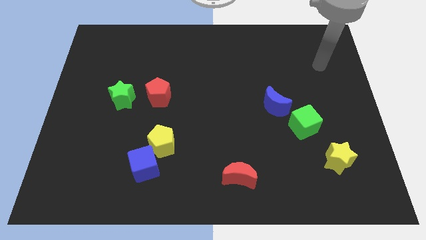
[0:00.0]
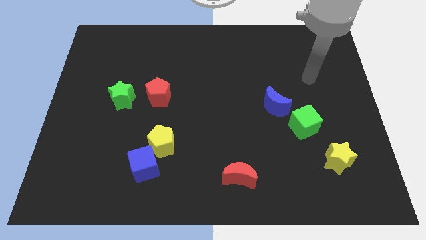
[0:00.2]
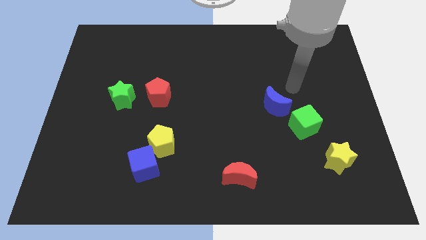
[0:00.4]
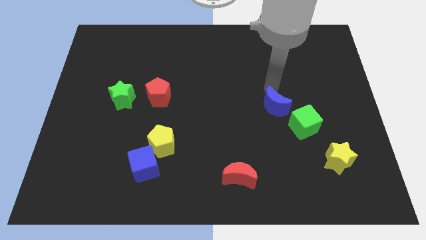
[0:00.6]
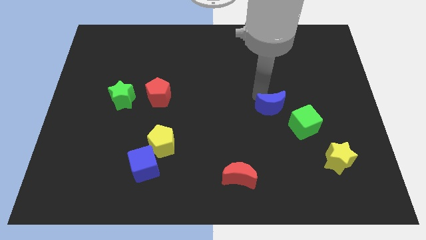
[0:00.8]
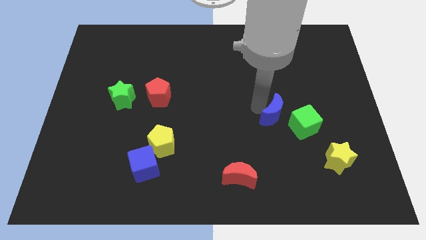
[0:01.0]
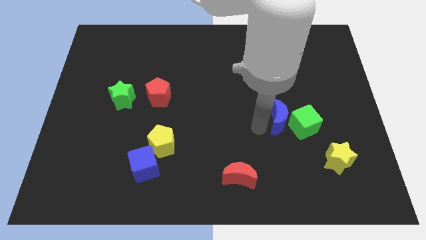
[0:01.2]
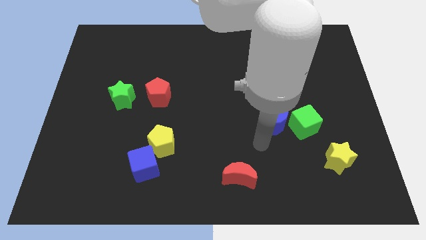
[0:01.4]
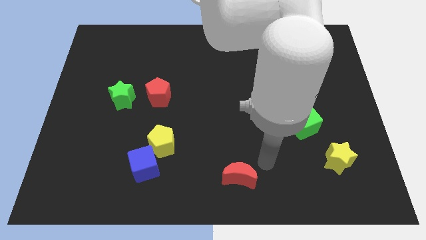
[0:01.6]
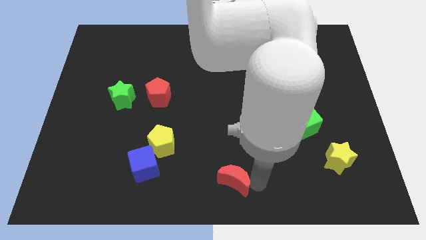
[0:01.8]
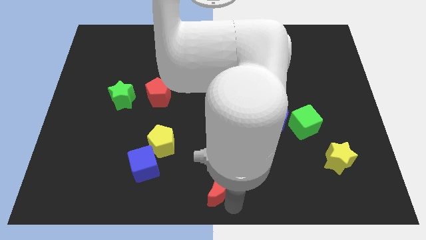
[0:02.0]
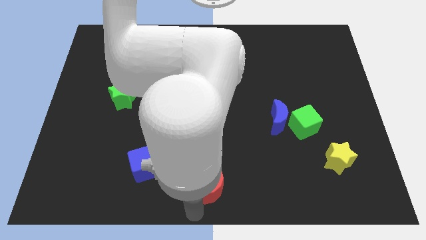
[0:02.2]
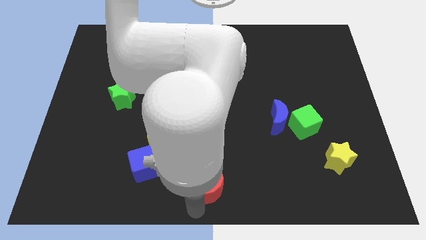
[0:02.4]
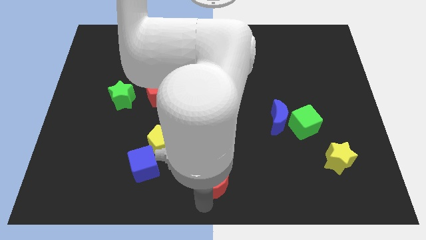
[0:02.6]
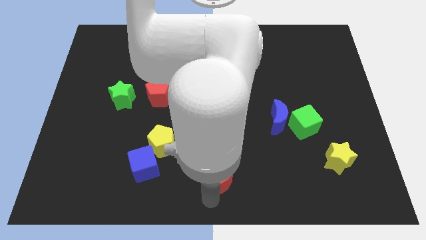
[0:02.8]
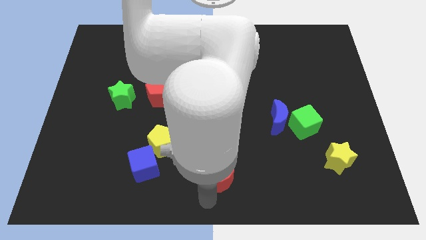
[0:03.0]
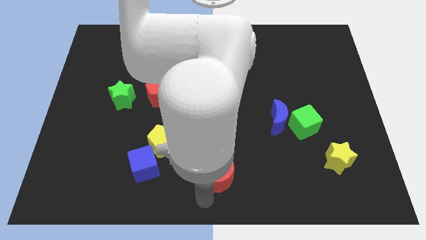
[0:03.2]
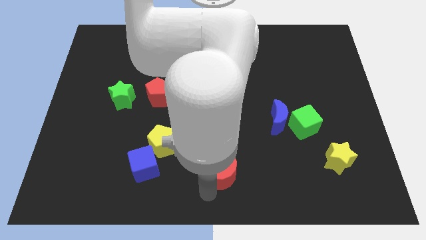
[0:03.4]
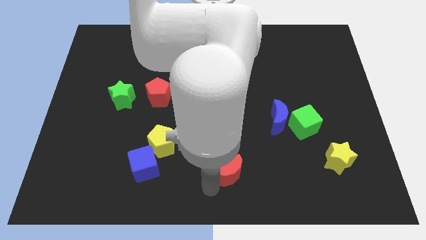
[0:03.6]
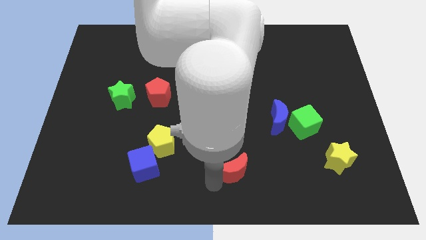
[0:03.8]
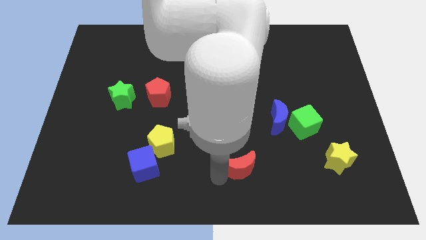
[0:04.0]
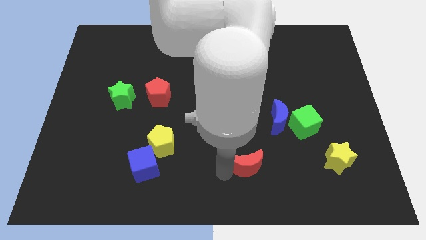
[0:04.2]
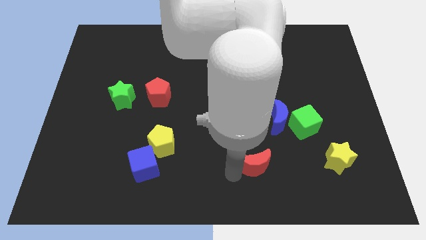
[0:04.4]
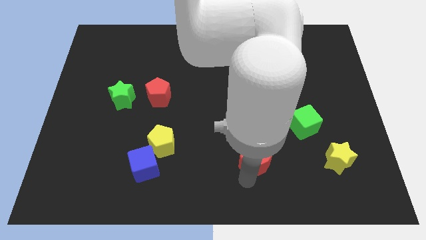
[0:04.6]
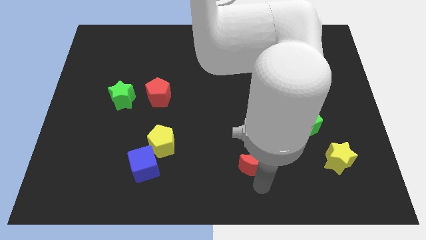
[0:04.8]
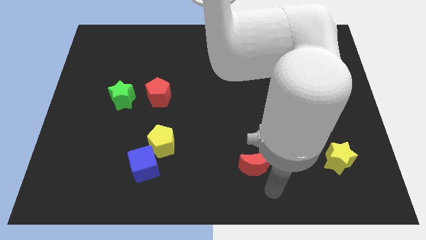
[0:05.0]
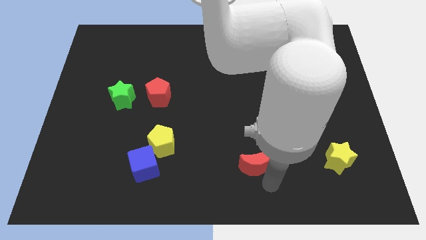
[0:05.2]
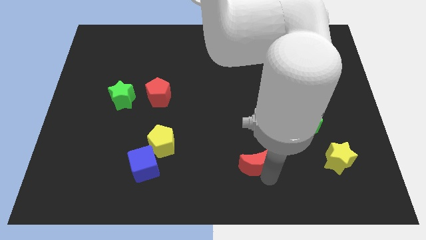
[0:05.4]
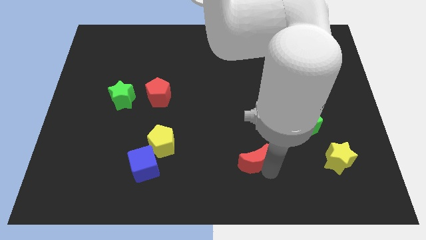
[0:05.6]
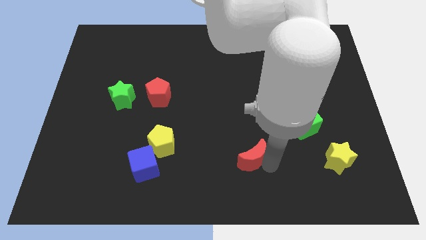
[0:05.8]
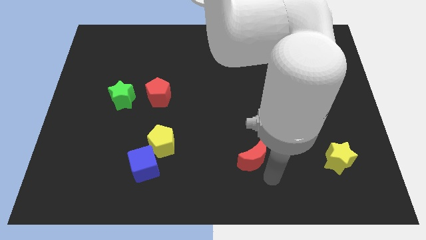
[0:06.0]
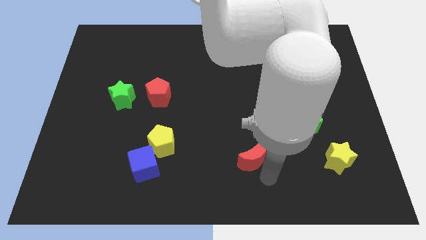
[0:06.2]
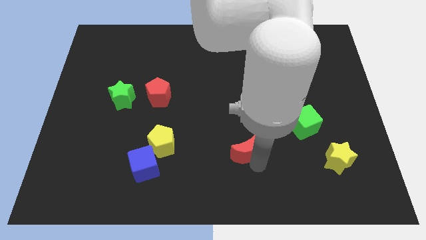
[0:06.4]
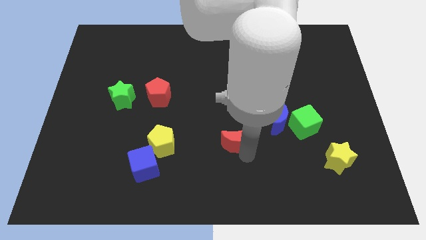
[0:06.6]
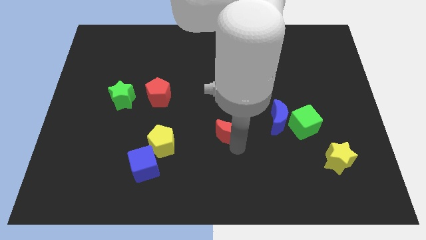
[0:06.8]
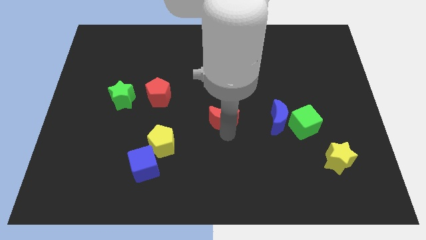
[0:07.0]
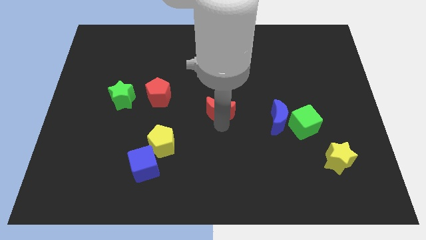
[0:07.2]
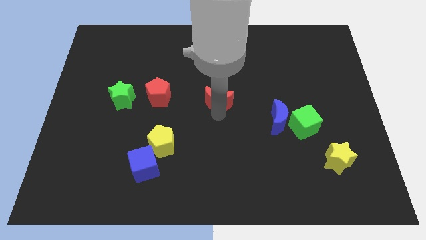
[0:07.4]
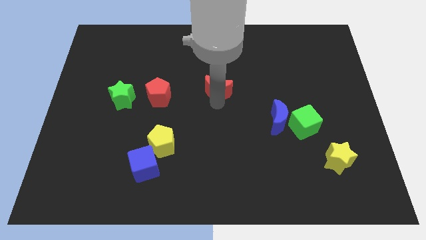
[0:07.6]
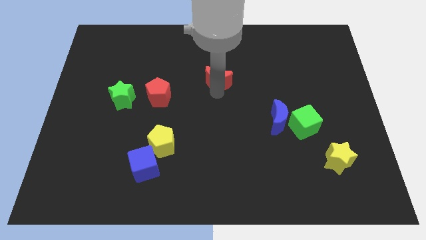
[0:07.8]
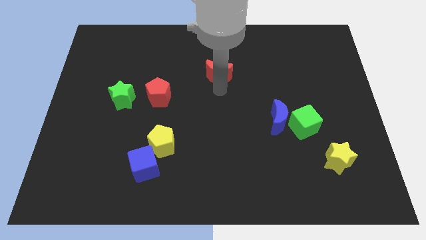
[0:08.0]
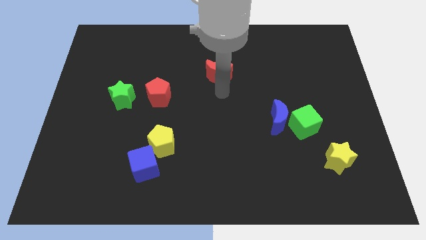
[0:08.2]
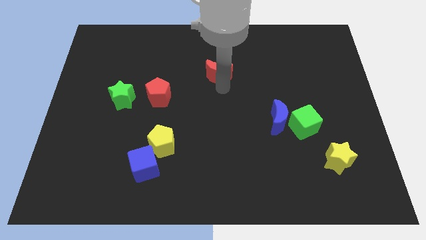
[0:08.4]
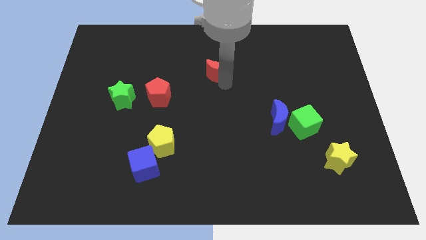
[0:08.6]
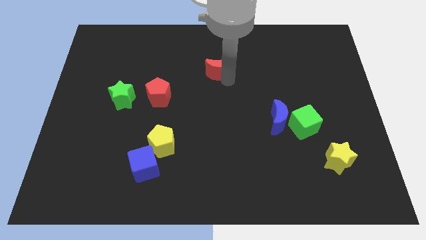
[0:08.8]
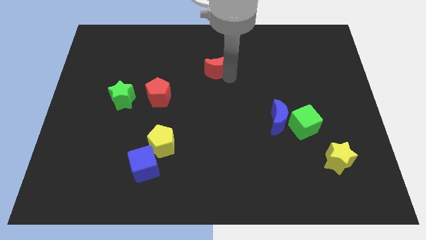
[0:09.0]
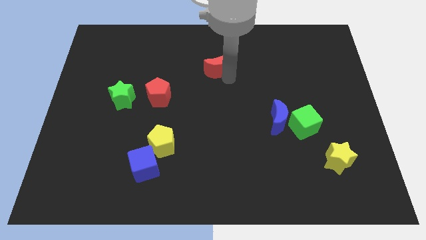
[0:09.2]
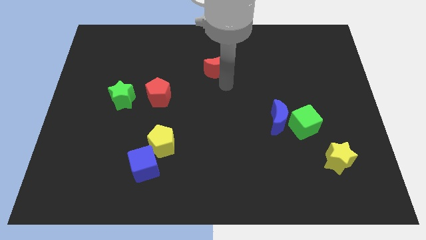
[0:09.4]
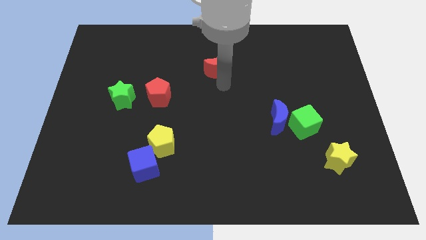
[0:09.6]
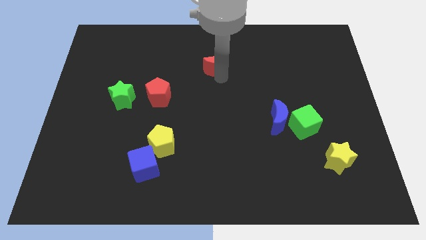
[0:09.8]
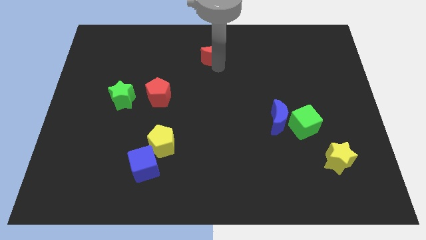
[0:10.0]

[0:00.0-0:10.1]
put the red moon to the towards your base

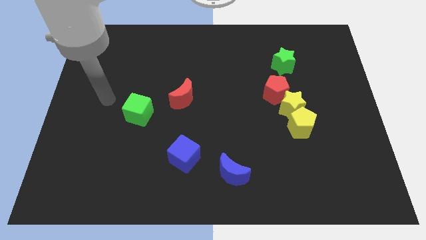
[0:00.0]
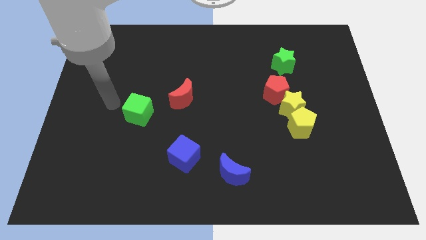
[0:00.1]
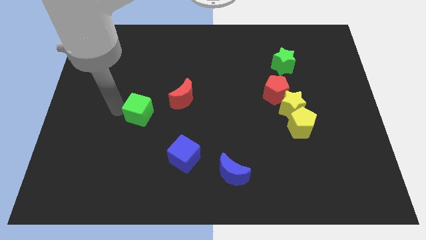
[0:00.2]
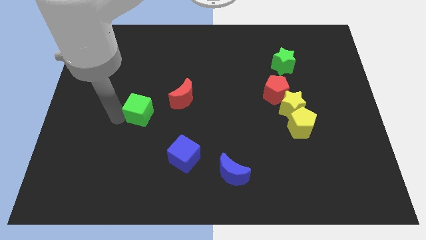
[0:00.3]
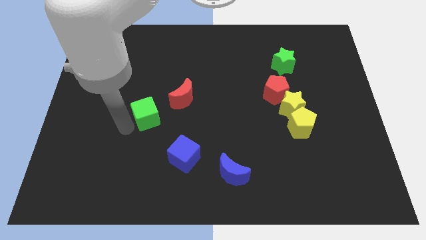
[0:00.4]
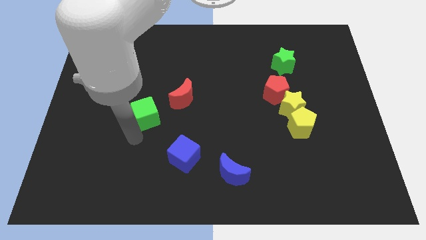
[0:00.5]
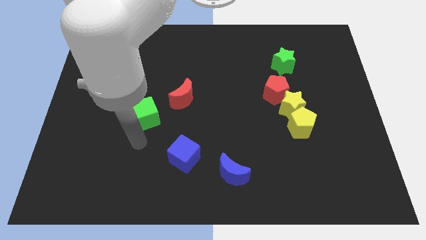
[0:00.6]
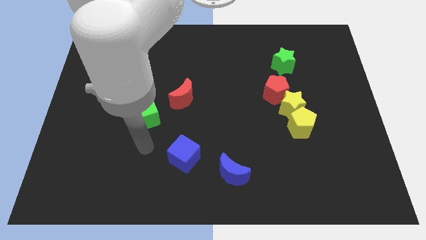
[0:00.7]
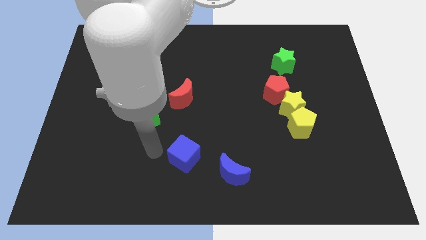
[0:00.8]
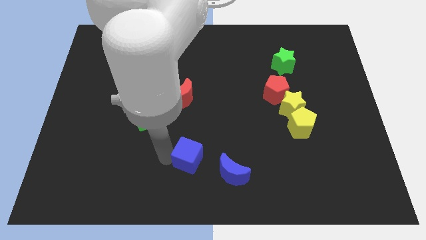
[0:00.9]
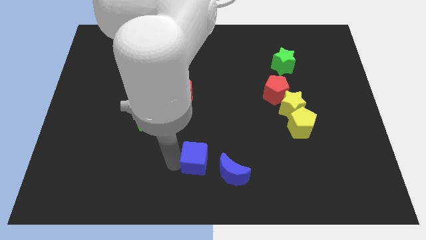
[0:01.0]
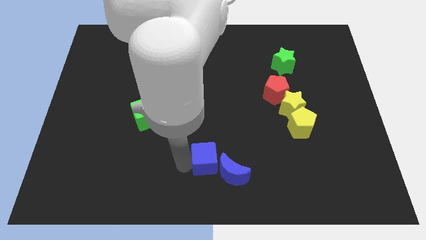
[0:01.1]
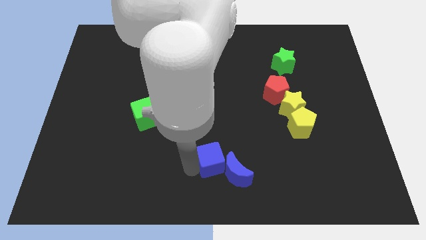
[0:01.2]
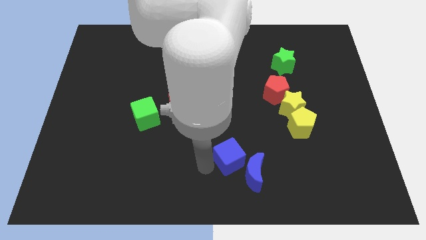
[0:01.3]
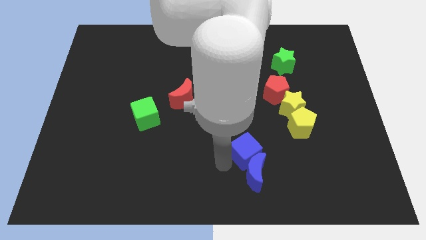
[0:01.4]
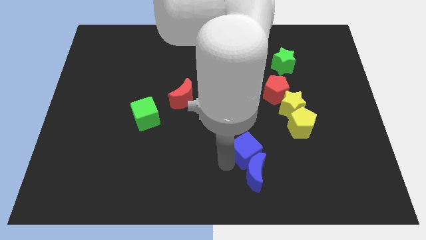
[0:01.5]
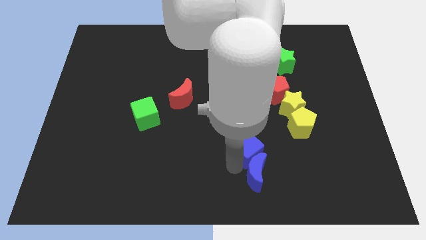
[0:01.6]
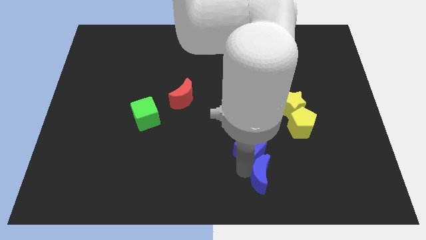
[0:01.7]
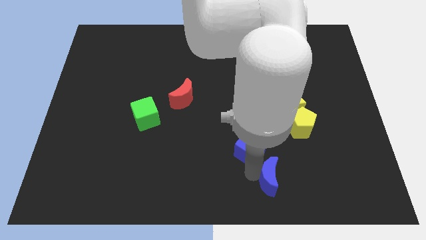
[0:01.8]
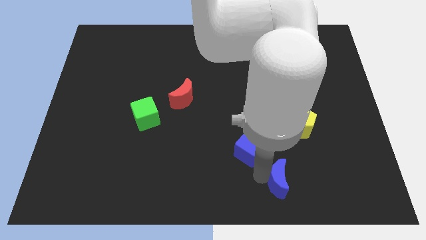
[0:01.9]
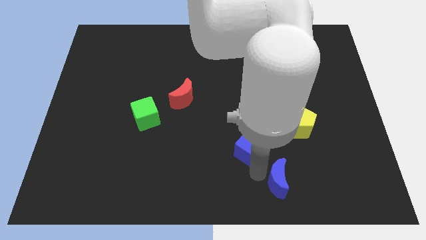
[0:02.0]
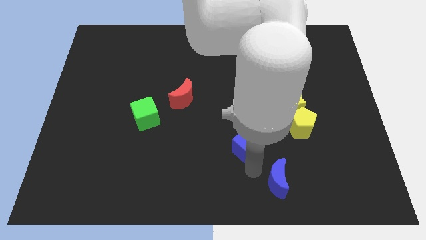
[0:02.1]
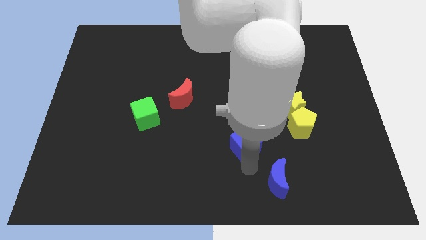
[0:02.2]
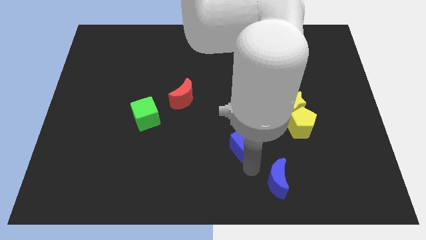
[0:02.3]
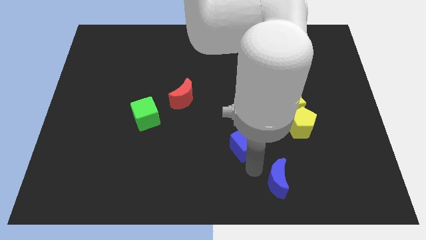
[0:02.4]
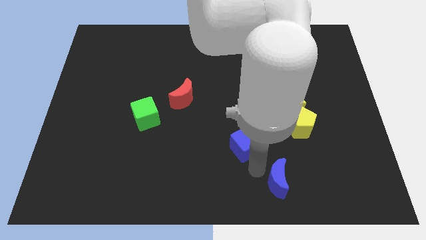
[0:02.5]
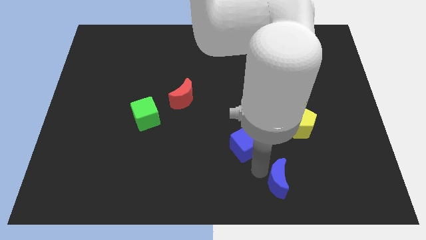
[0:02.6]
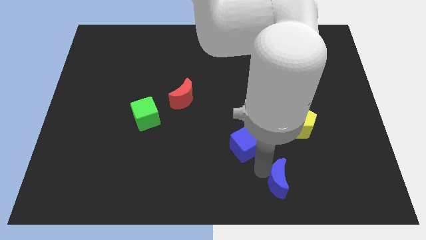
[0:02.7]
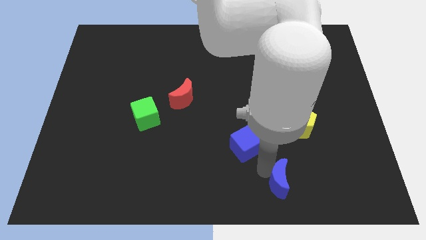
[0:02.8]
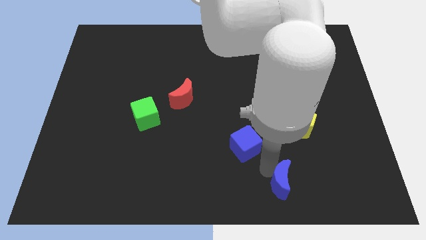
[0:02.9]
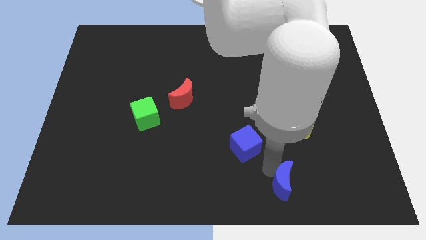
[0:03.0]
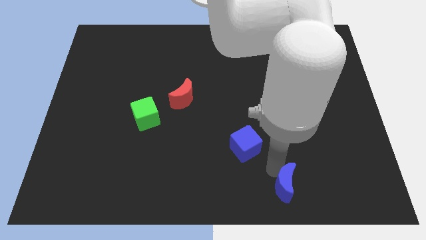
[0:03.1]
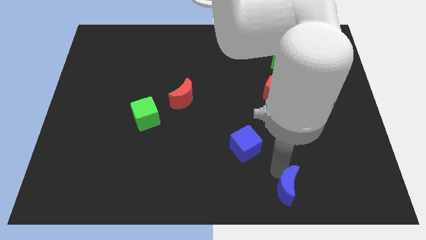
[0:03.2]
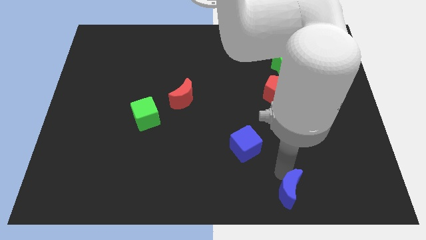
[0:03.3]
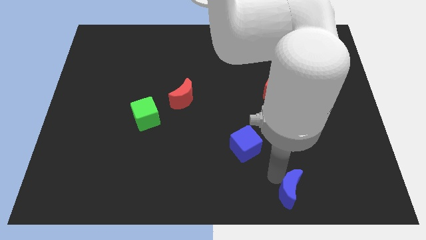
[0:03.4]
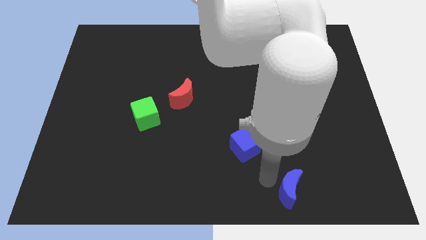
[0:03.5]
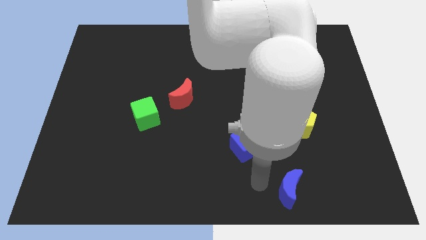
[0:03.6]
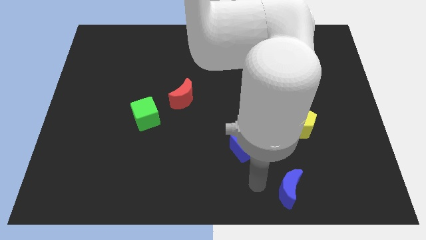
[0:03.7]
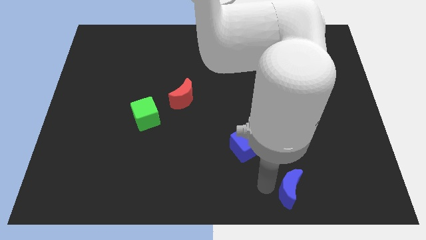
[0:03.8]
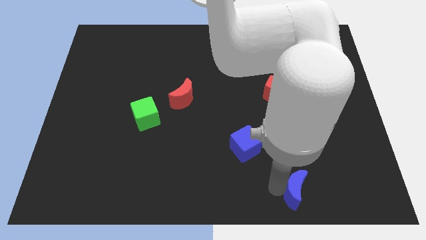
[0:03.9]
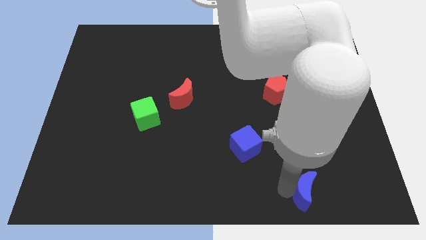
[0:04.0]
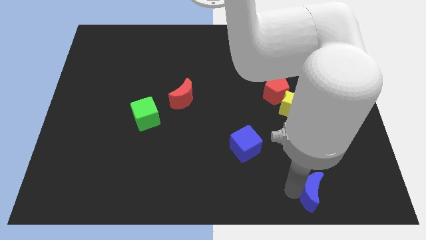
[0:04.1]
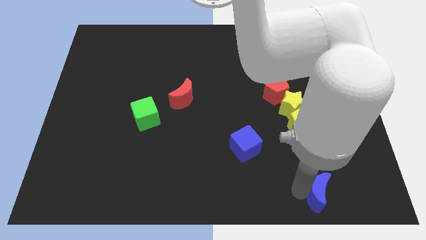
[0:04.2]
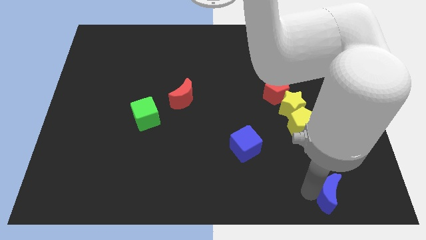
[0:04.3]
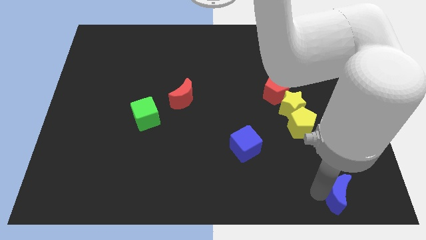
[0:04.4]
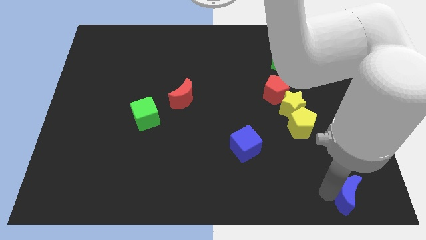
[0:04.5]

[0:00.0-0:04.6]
put the blue moon to the bottom right of the board
